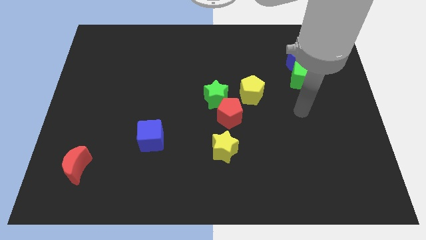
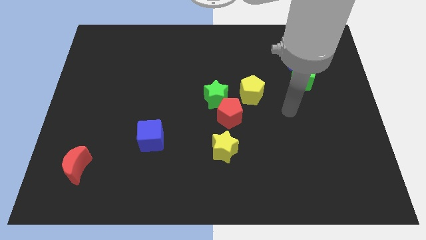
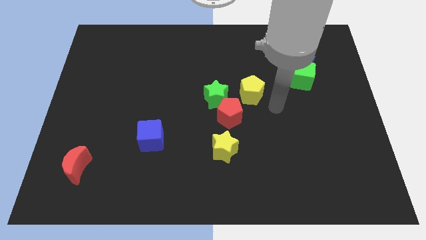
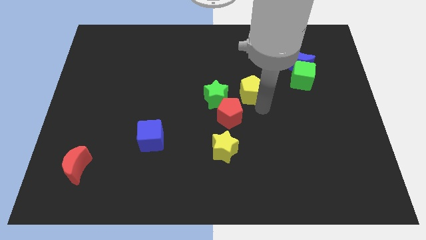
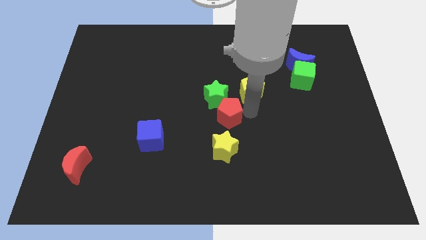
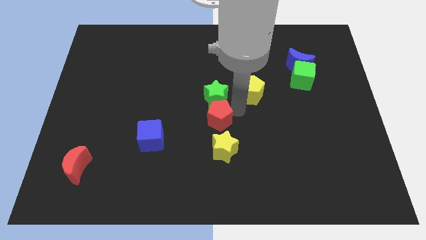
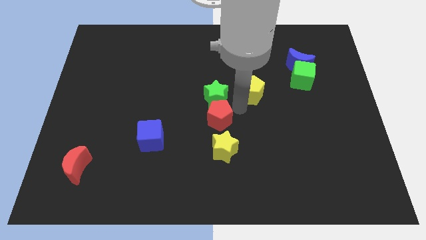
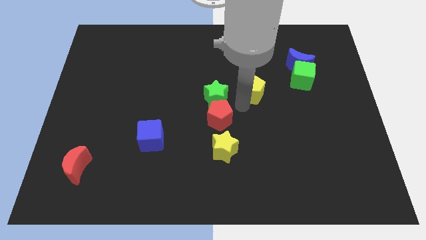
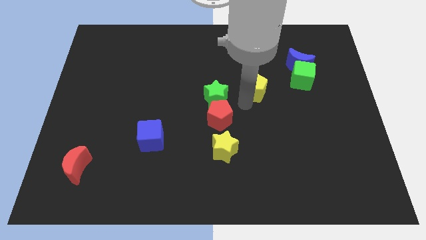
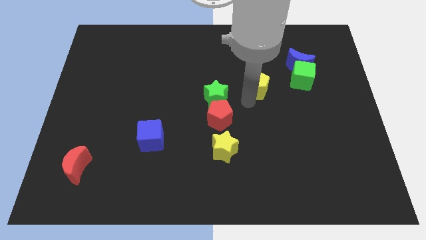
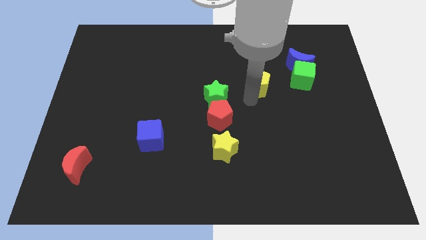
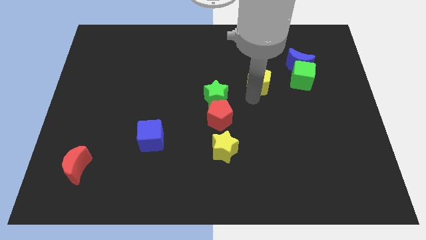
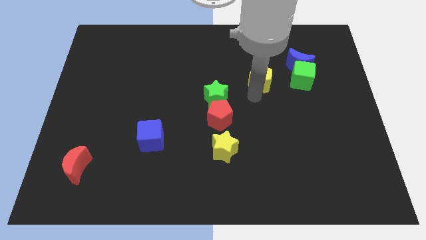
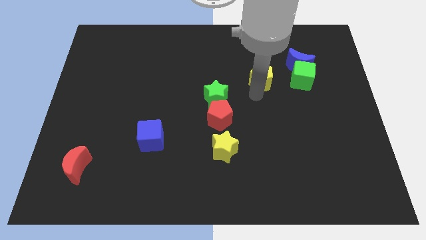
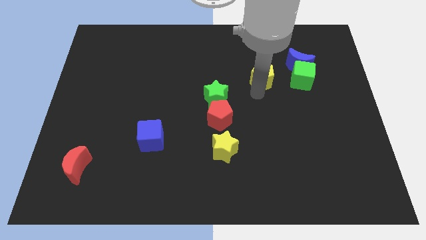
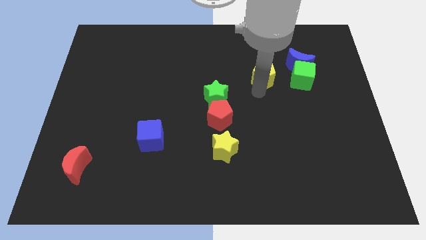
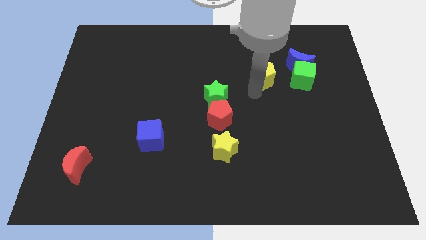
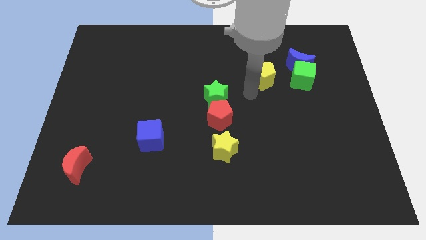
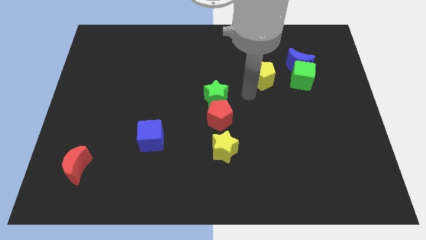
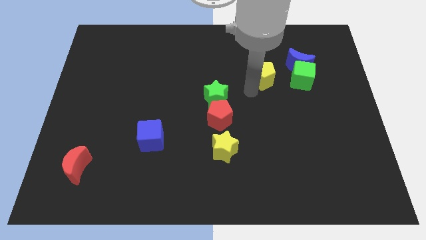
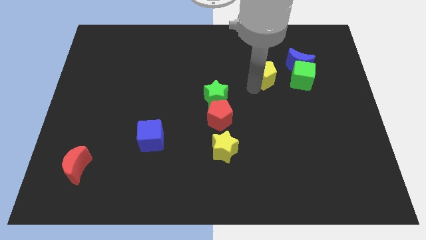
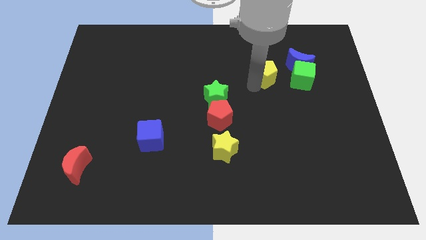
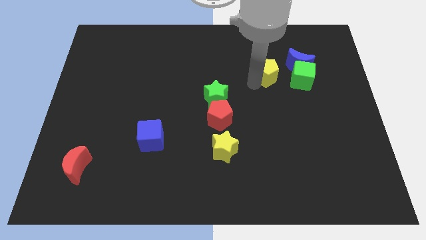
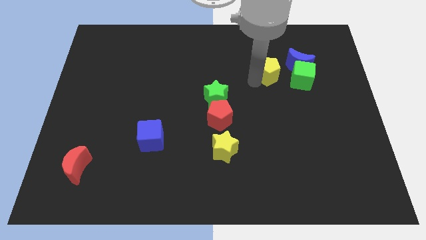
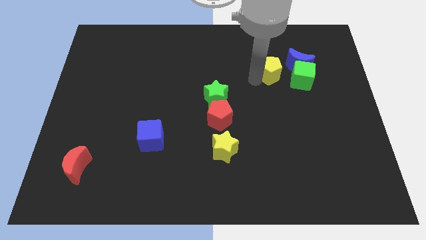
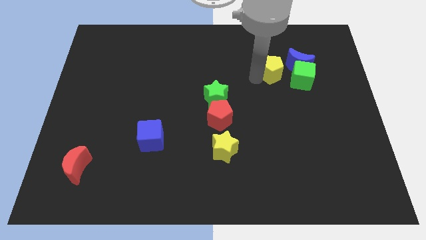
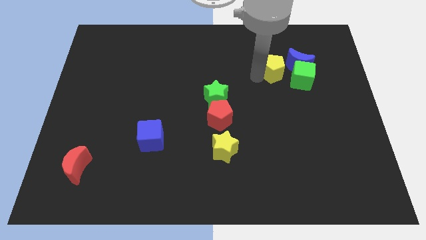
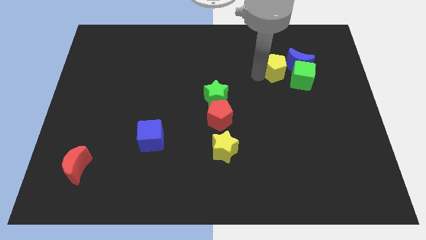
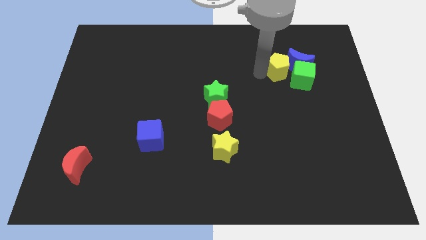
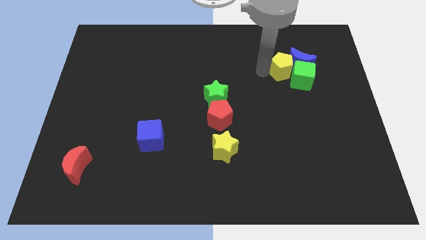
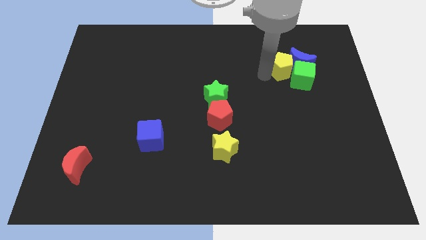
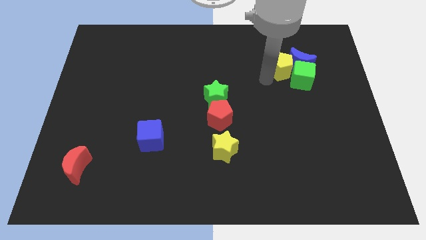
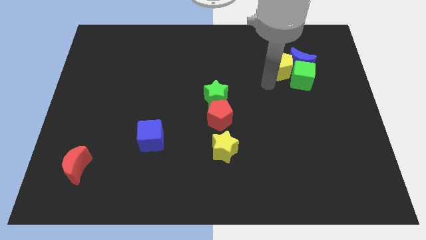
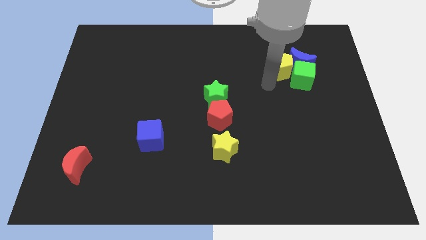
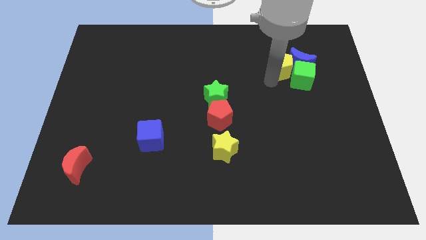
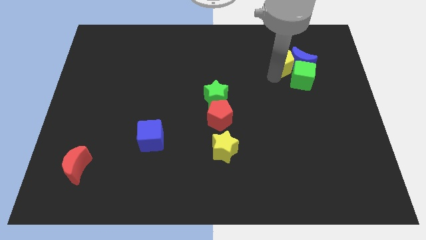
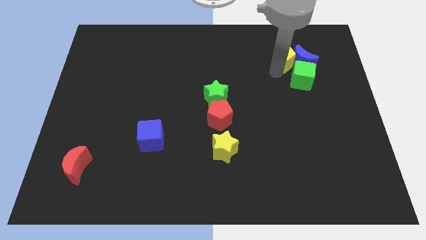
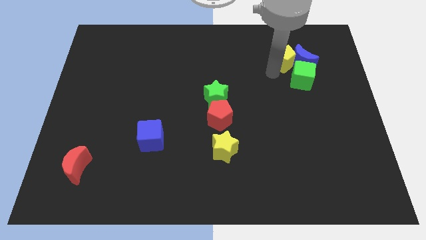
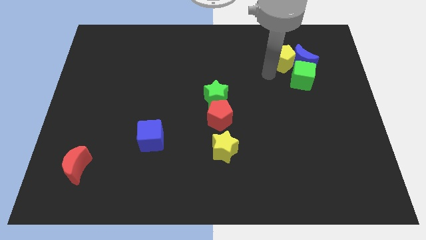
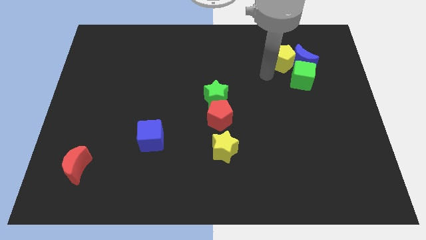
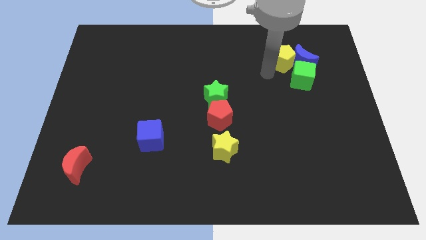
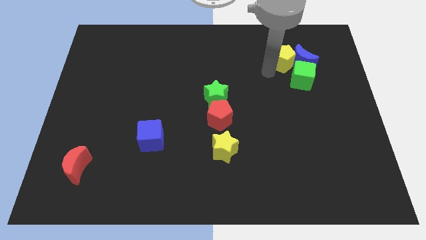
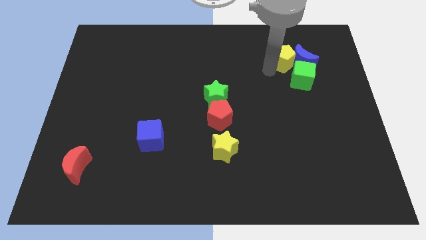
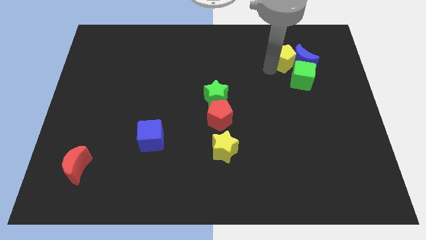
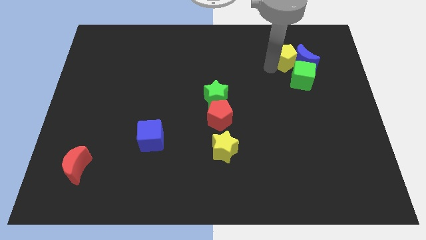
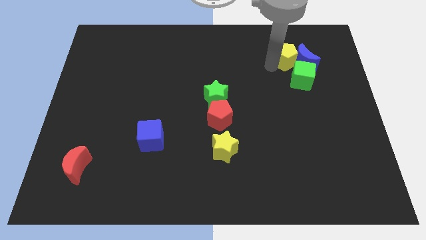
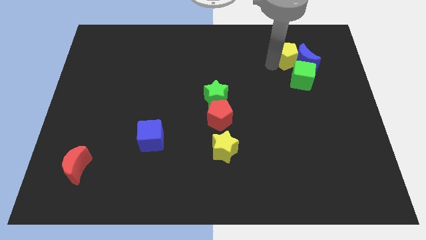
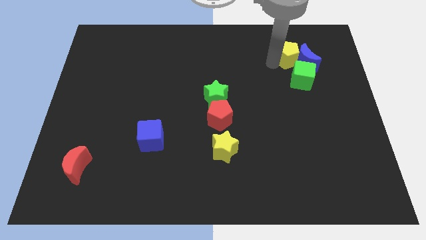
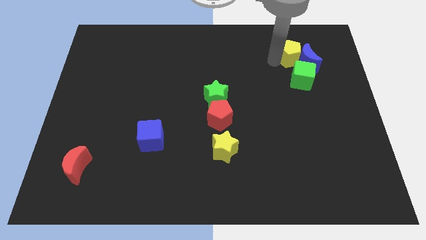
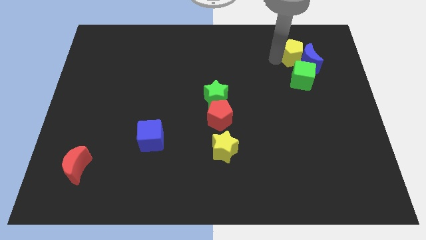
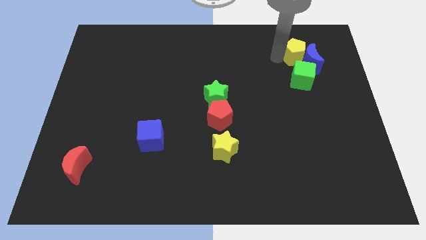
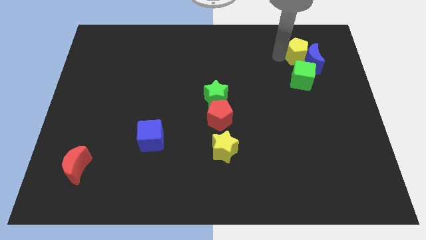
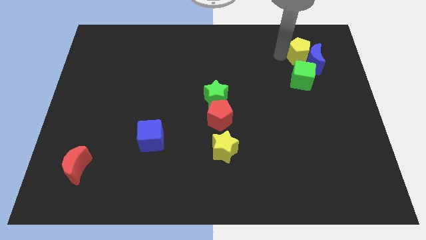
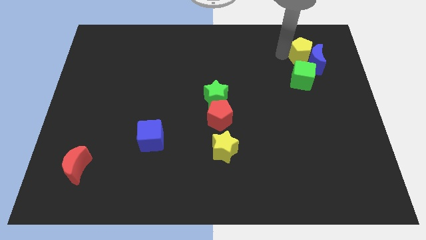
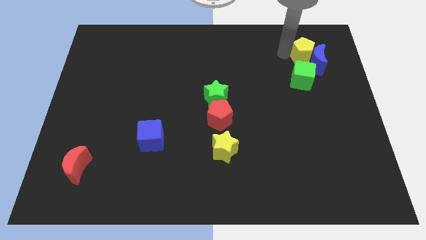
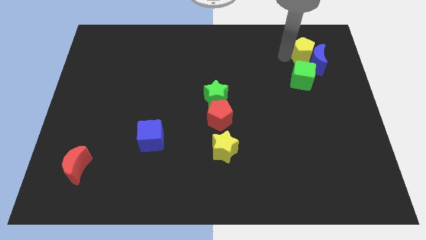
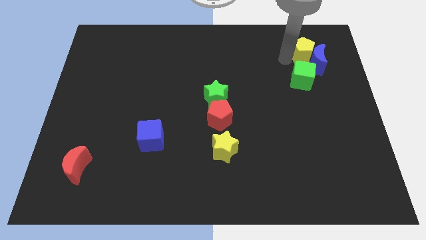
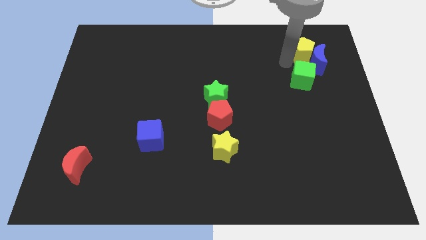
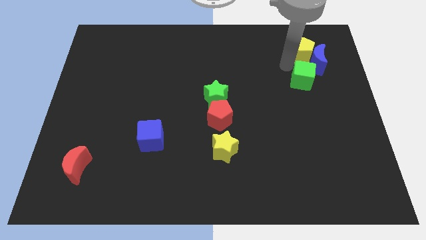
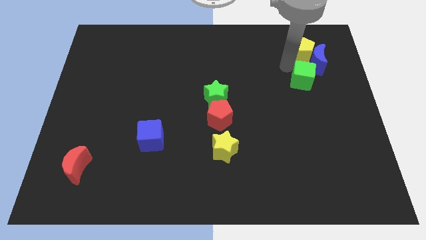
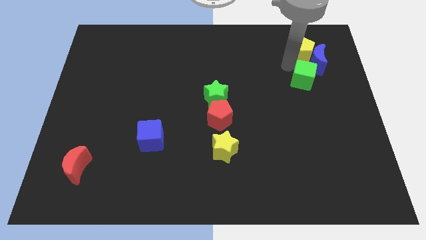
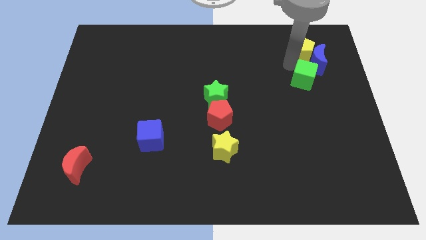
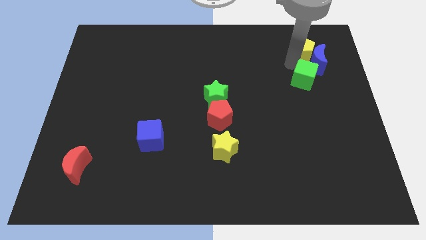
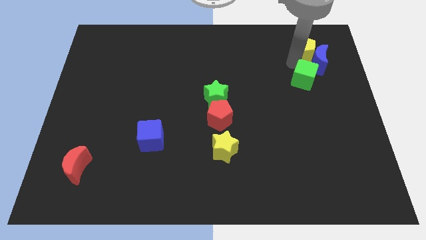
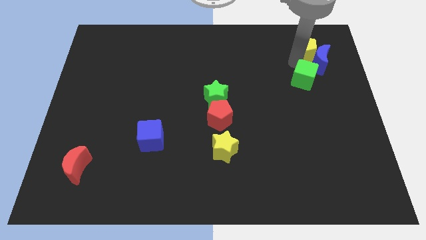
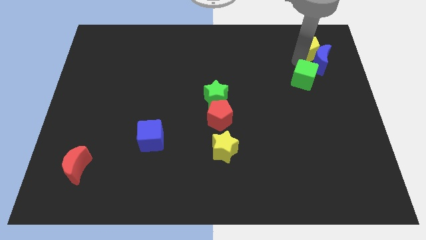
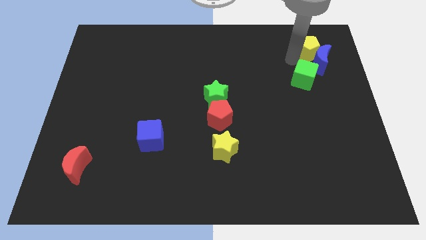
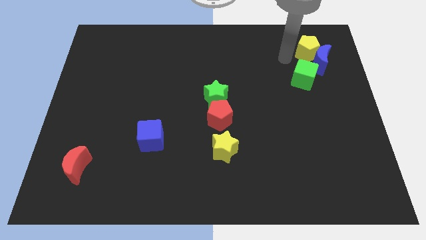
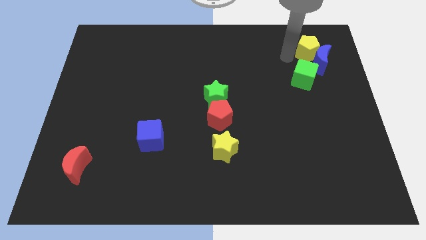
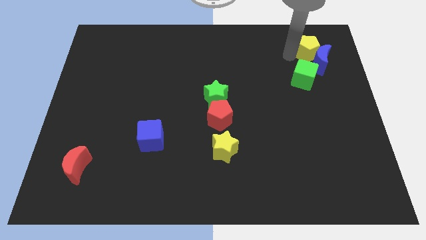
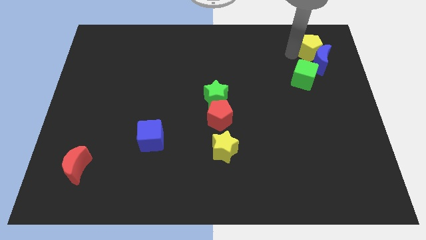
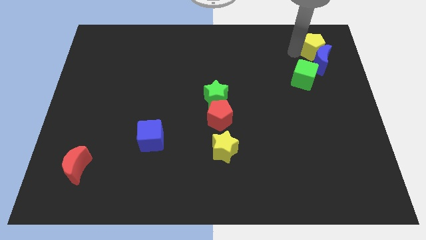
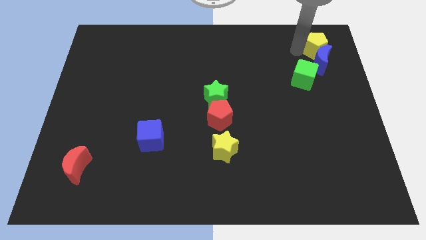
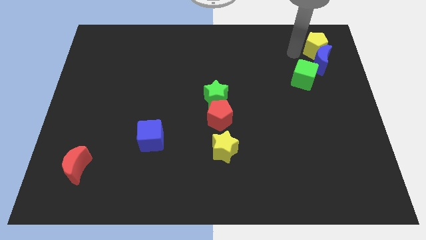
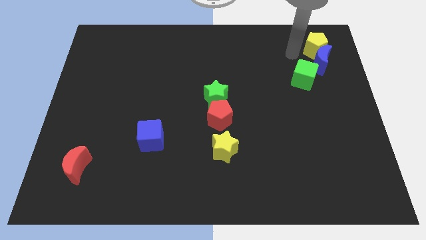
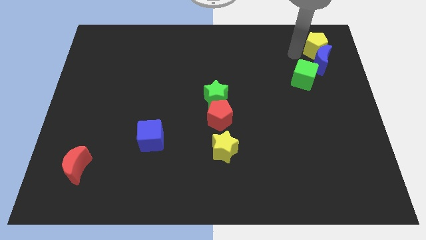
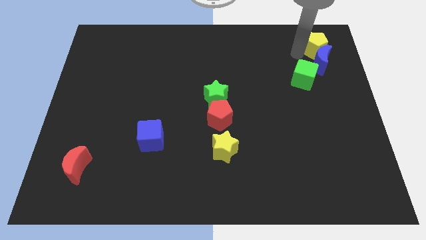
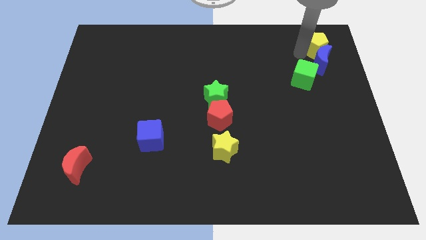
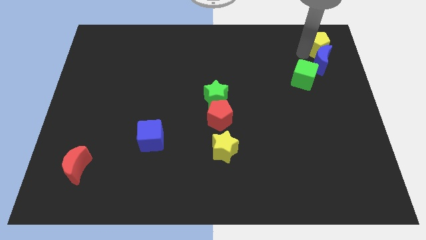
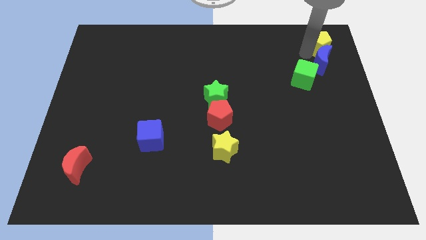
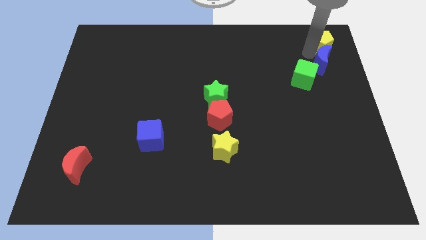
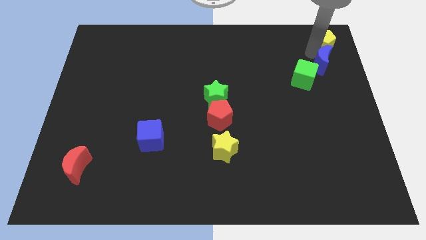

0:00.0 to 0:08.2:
put the yellow pentagon to the top right
